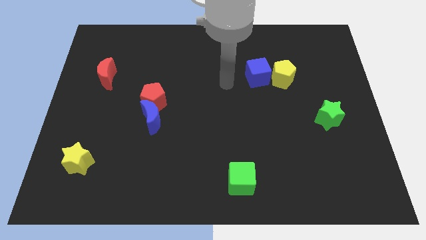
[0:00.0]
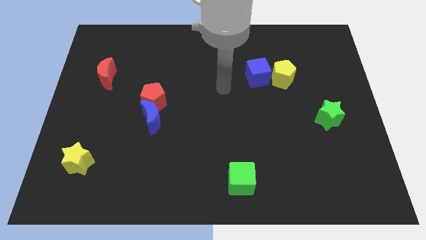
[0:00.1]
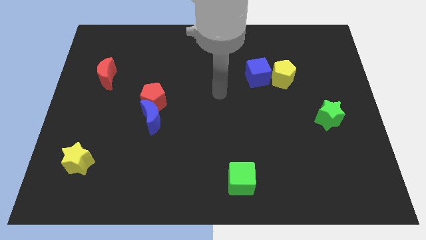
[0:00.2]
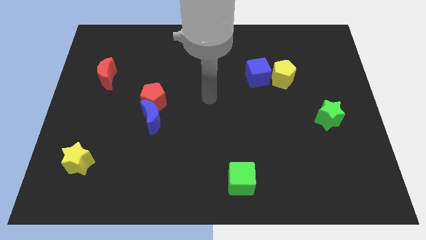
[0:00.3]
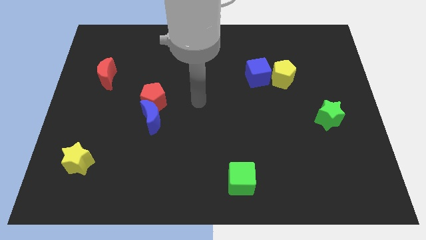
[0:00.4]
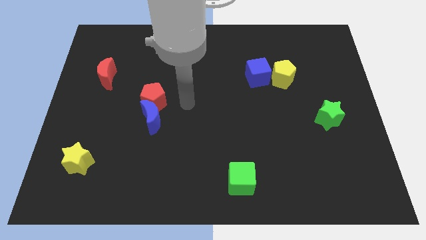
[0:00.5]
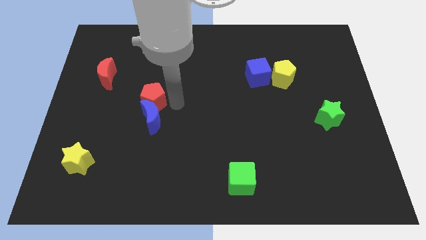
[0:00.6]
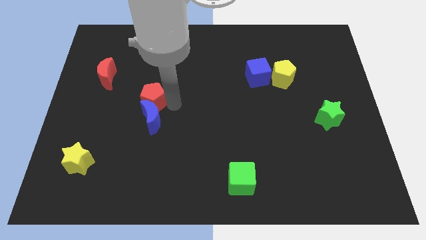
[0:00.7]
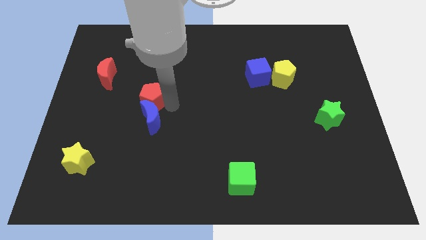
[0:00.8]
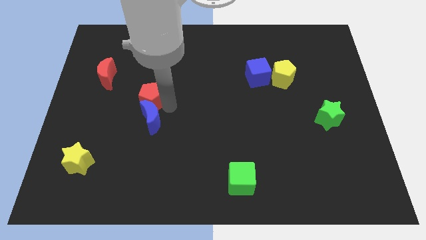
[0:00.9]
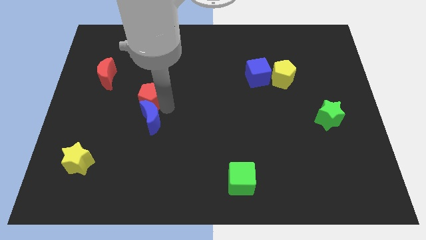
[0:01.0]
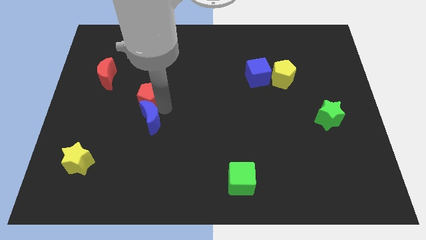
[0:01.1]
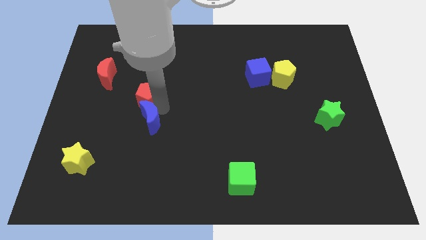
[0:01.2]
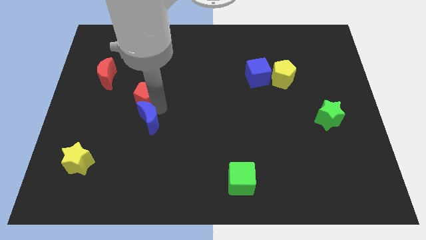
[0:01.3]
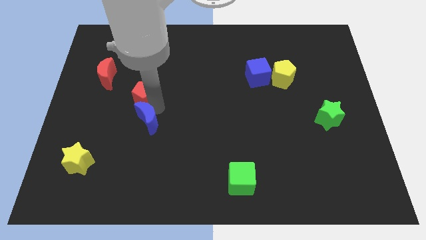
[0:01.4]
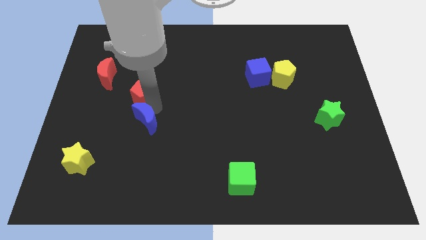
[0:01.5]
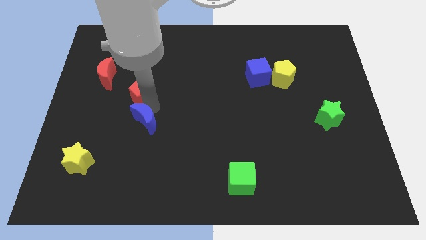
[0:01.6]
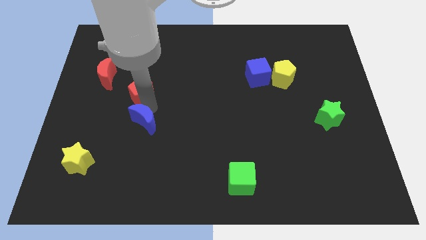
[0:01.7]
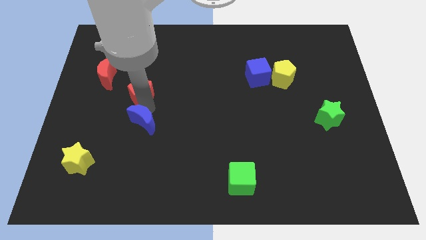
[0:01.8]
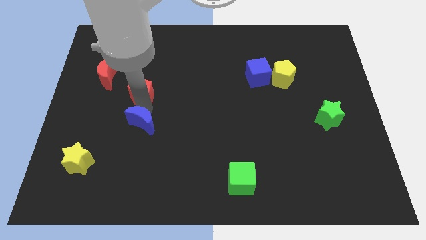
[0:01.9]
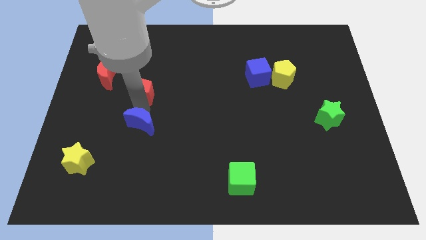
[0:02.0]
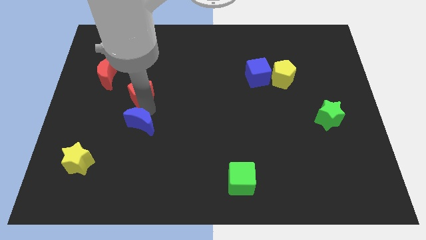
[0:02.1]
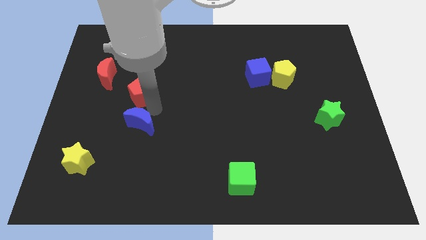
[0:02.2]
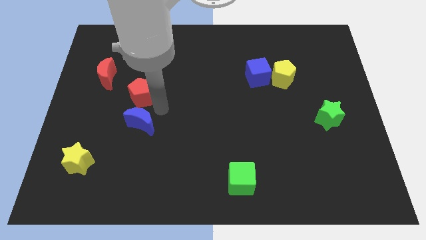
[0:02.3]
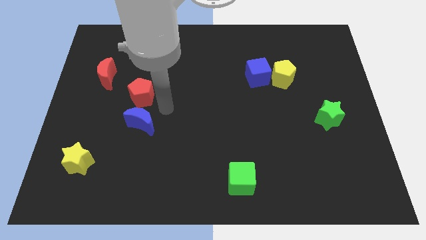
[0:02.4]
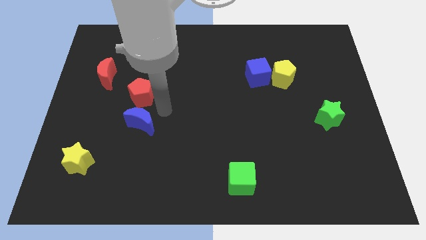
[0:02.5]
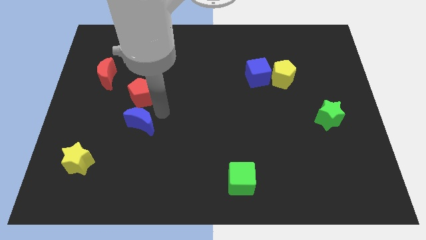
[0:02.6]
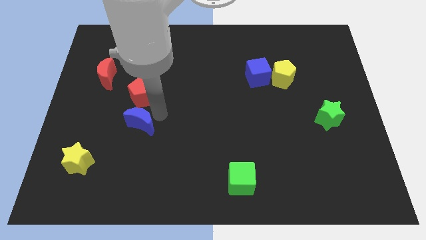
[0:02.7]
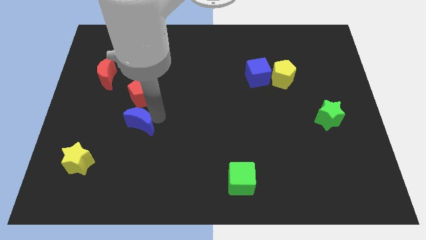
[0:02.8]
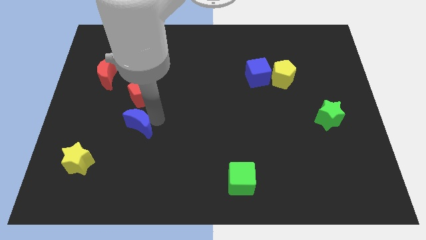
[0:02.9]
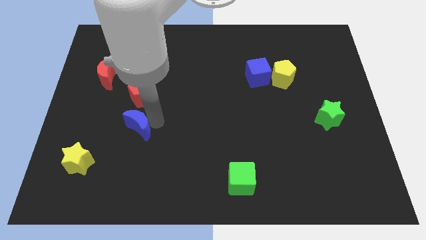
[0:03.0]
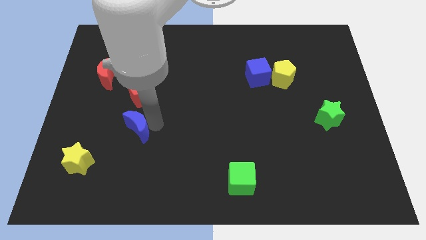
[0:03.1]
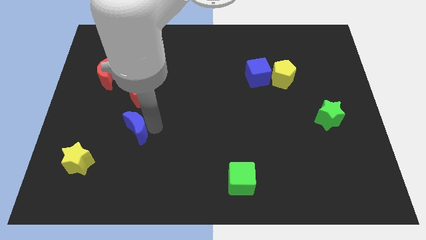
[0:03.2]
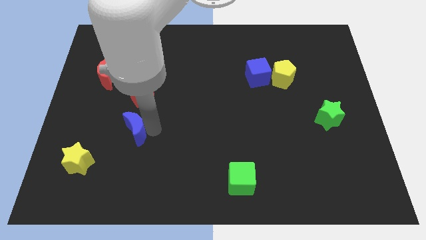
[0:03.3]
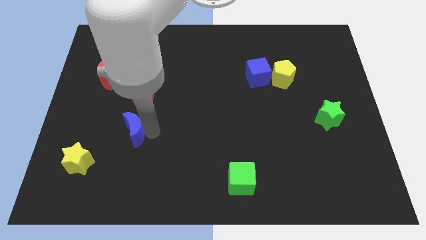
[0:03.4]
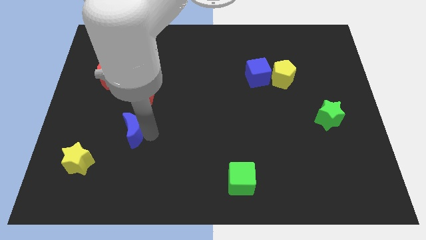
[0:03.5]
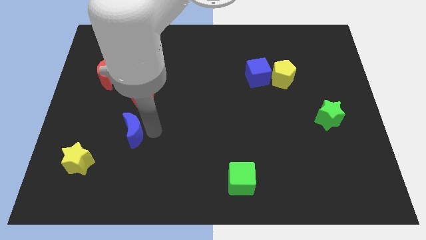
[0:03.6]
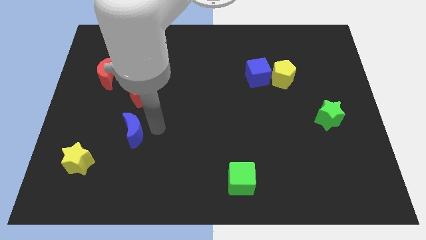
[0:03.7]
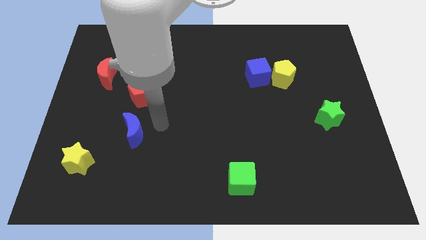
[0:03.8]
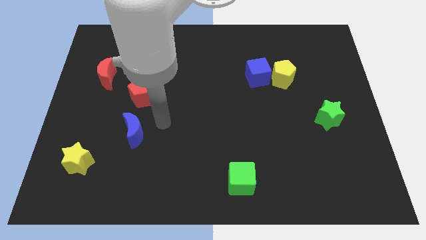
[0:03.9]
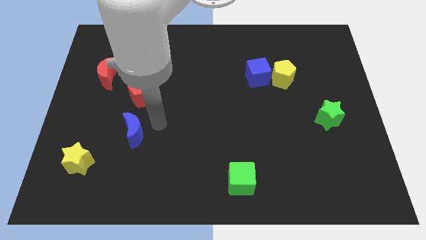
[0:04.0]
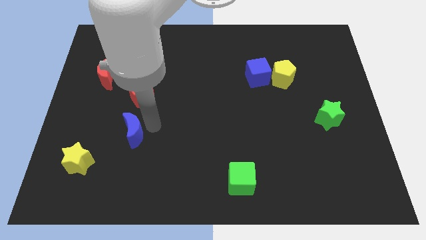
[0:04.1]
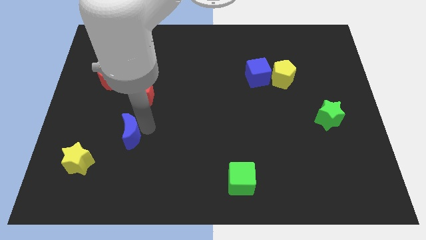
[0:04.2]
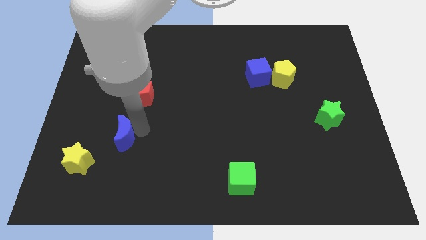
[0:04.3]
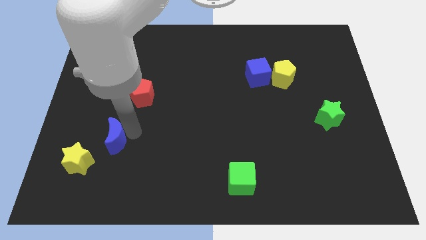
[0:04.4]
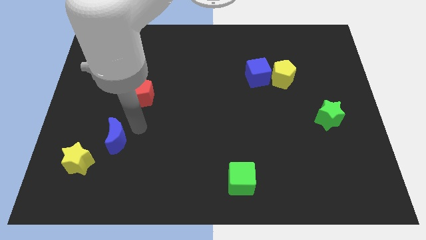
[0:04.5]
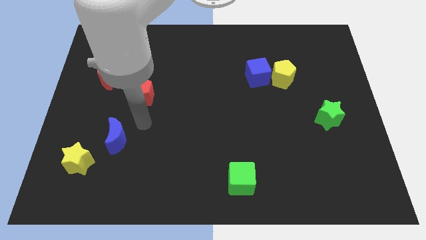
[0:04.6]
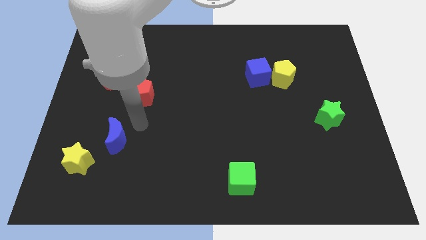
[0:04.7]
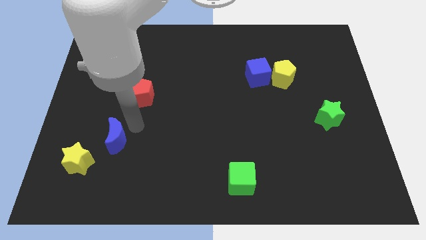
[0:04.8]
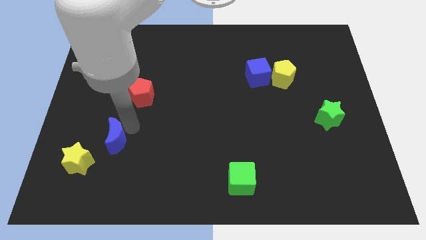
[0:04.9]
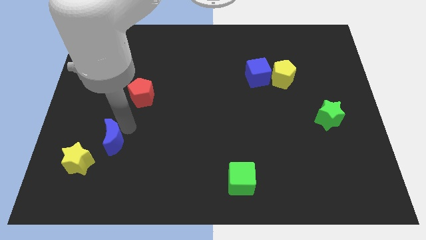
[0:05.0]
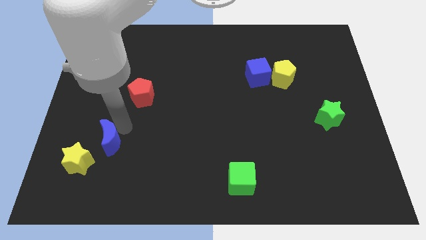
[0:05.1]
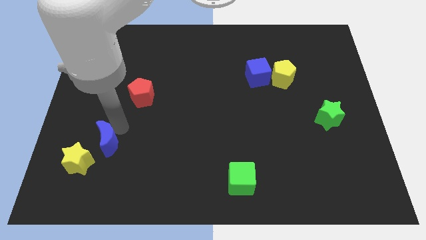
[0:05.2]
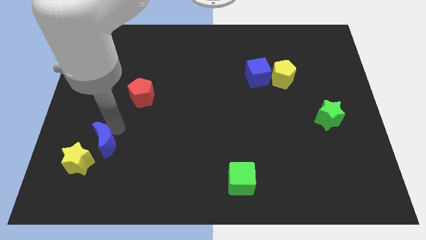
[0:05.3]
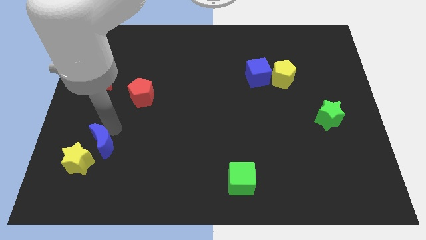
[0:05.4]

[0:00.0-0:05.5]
move the blue moon close to the yellow star

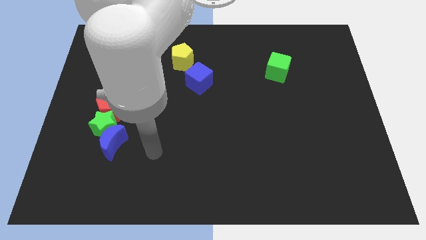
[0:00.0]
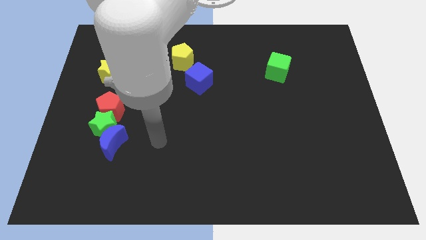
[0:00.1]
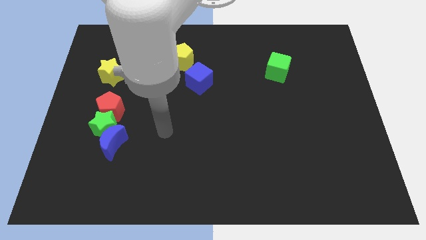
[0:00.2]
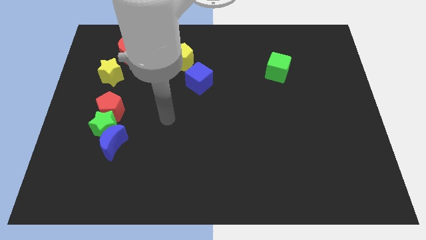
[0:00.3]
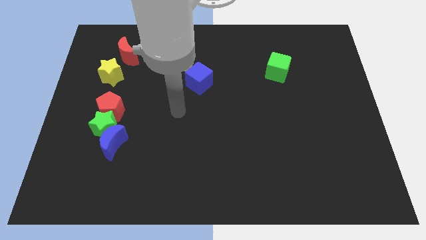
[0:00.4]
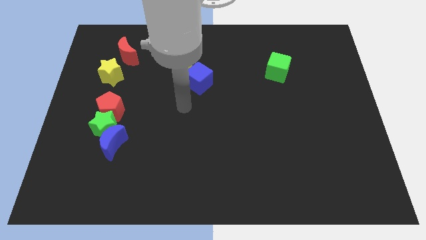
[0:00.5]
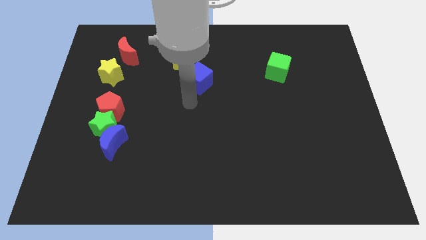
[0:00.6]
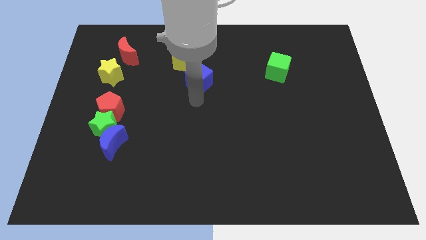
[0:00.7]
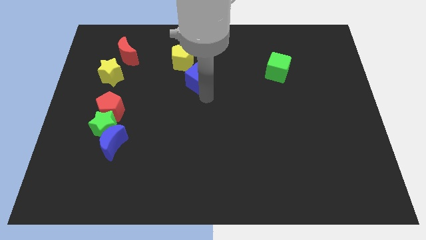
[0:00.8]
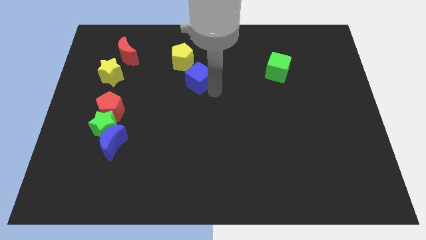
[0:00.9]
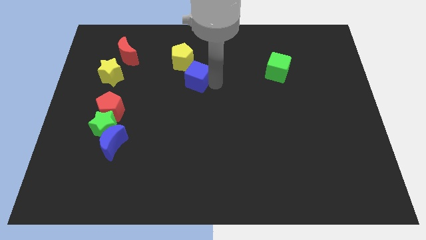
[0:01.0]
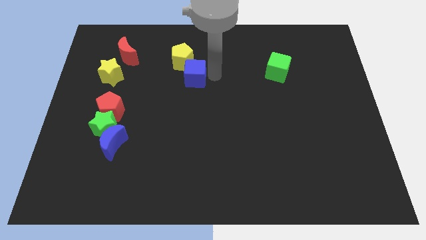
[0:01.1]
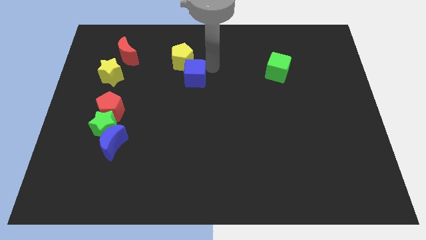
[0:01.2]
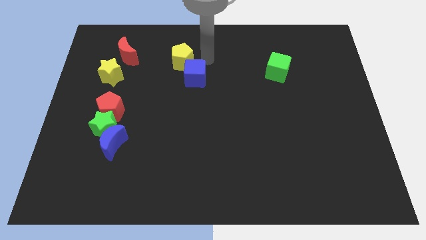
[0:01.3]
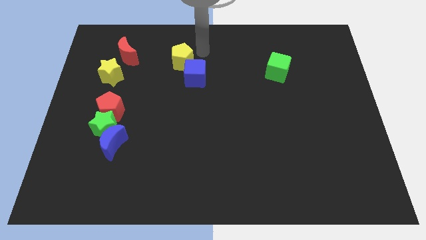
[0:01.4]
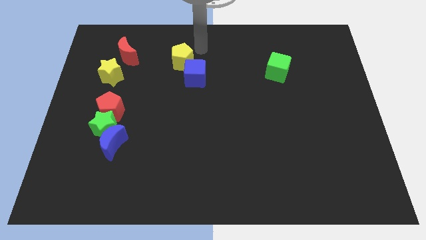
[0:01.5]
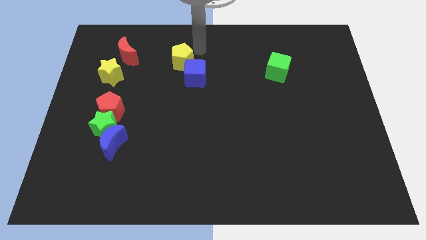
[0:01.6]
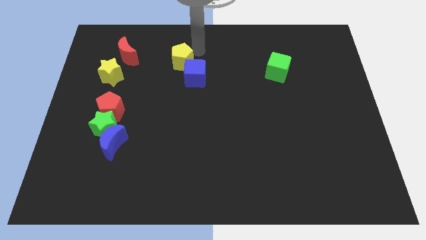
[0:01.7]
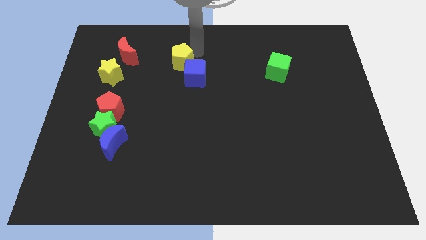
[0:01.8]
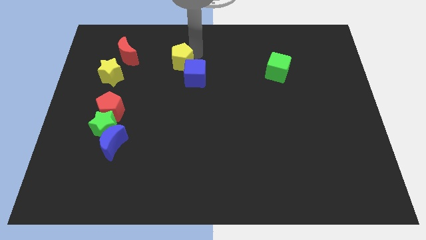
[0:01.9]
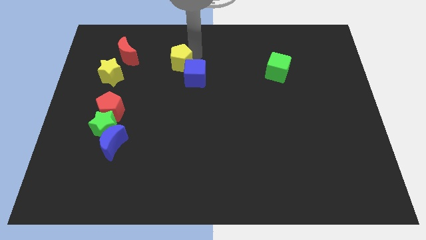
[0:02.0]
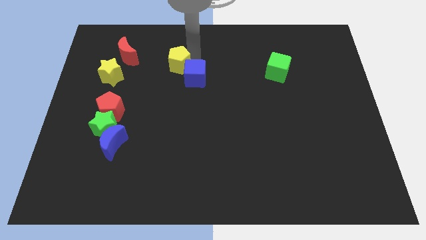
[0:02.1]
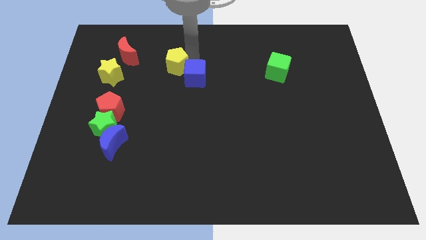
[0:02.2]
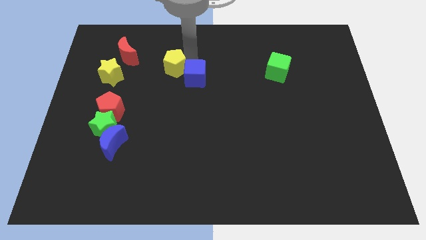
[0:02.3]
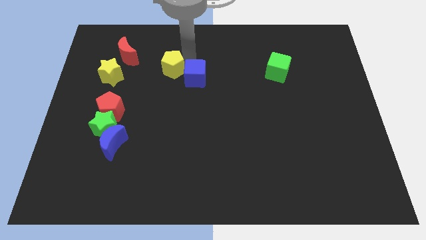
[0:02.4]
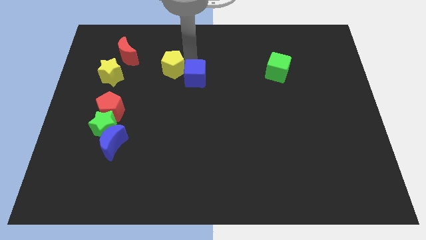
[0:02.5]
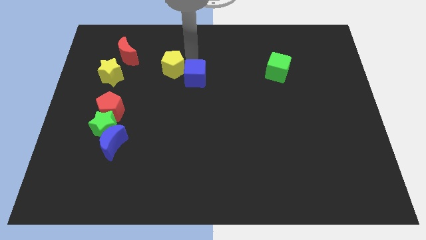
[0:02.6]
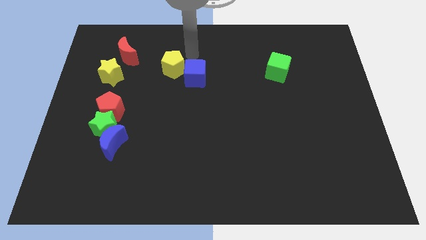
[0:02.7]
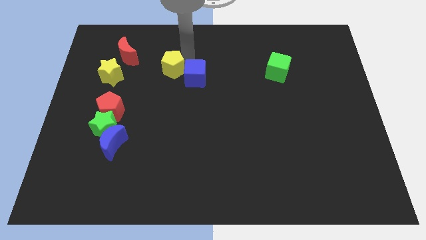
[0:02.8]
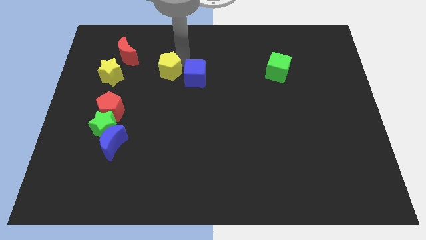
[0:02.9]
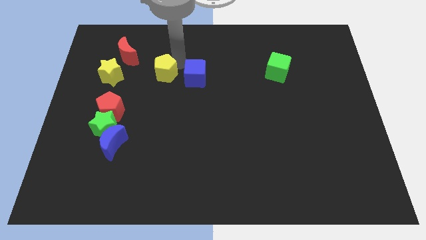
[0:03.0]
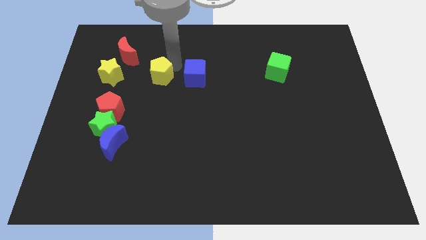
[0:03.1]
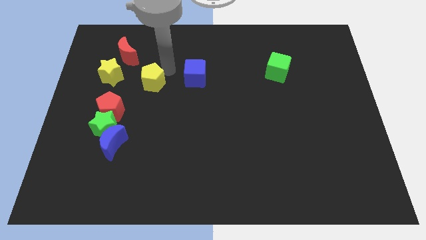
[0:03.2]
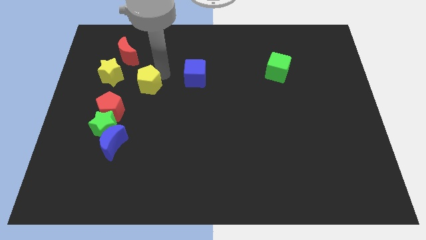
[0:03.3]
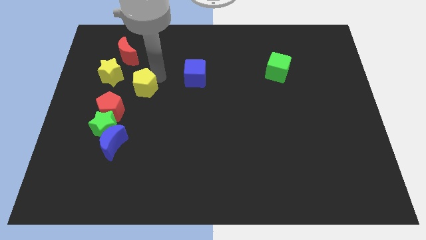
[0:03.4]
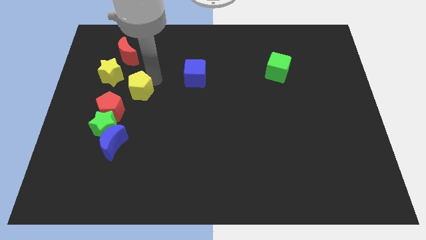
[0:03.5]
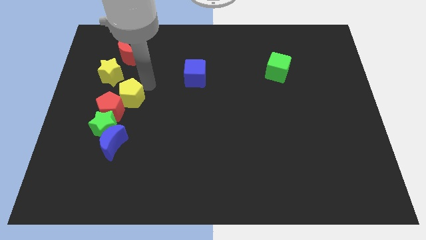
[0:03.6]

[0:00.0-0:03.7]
slide the yellow pentagon to the red pentagon
